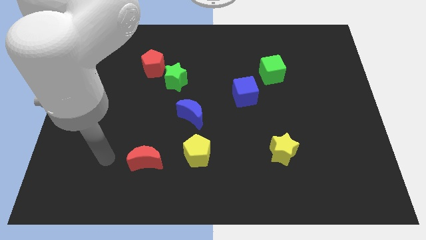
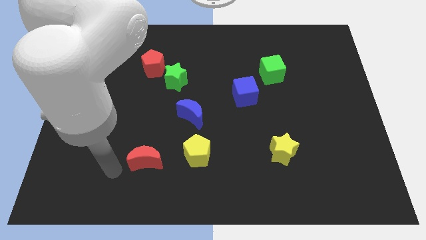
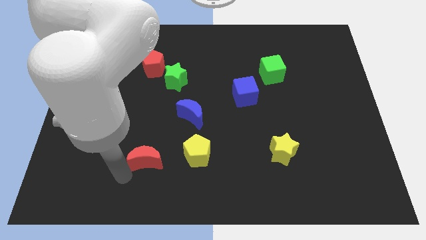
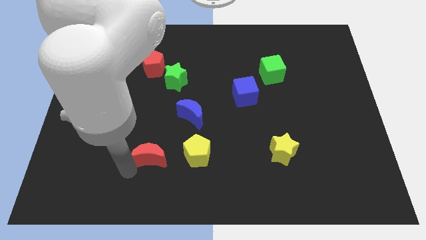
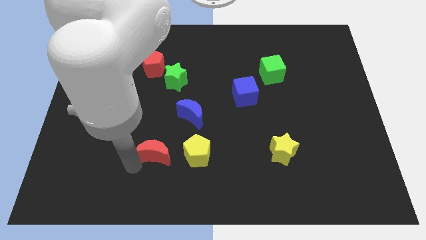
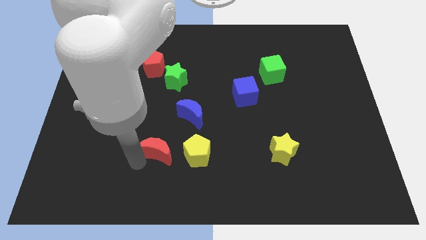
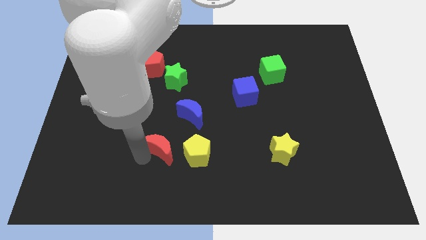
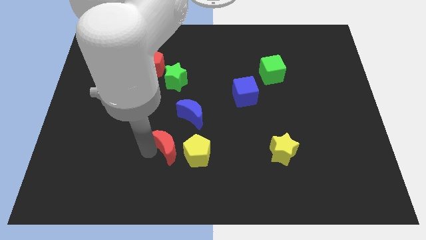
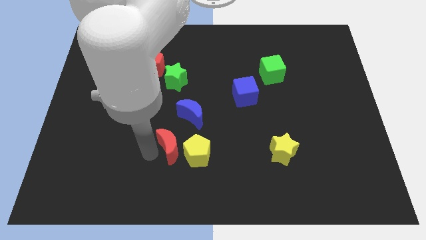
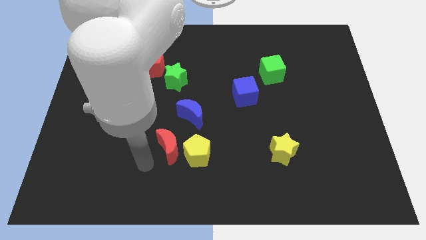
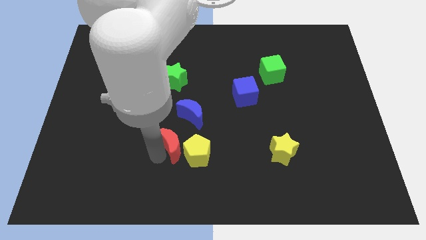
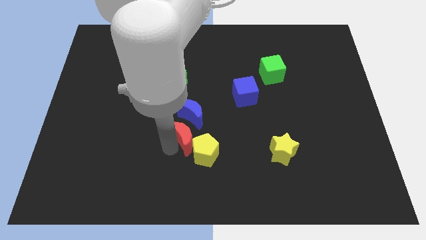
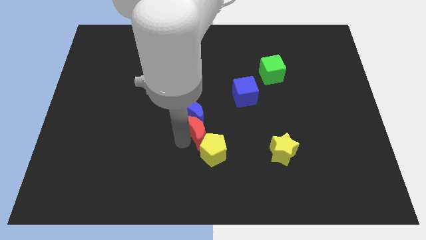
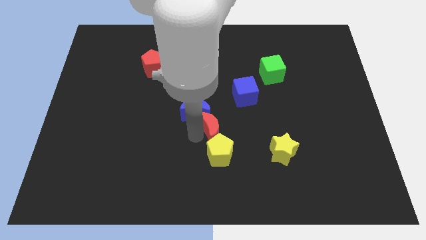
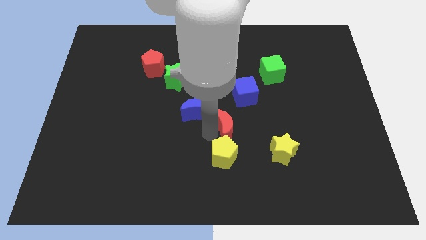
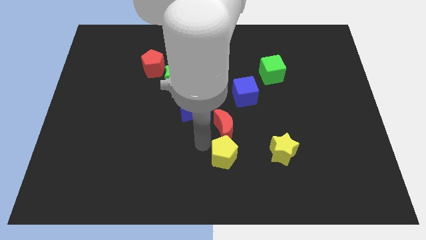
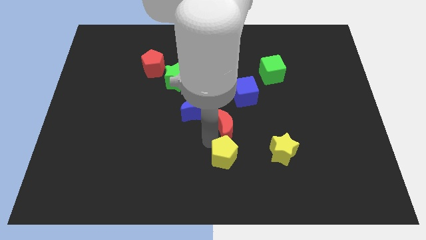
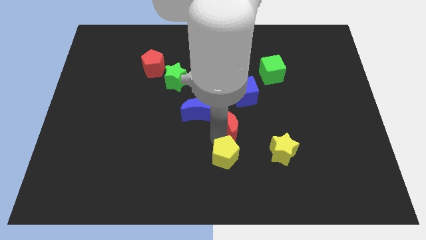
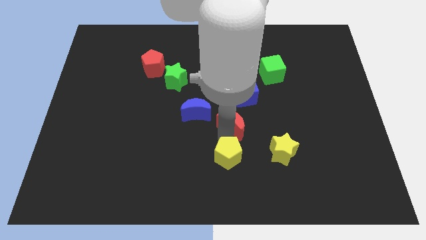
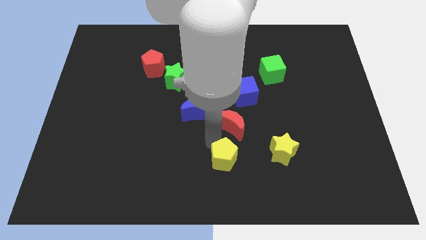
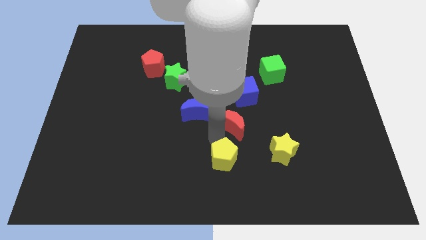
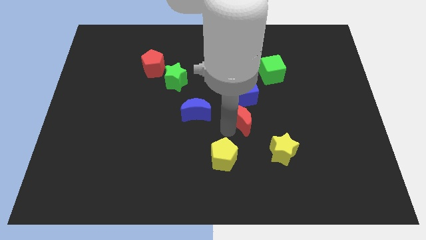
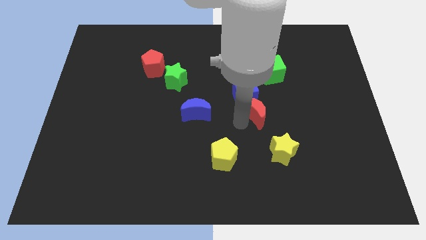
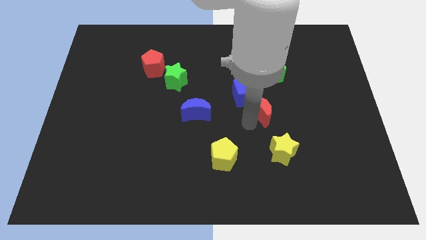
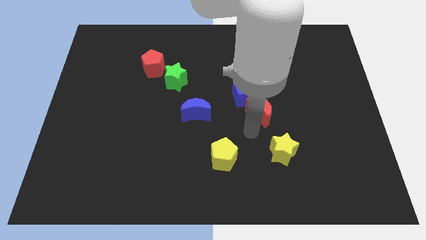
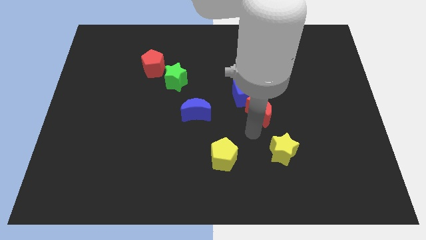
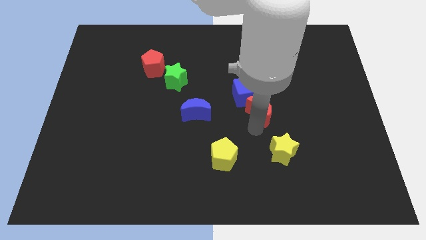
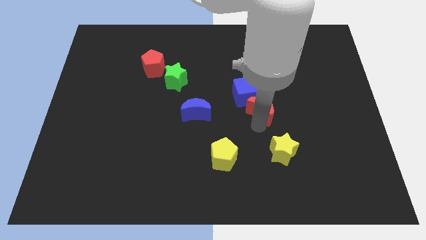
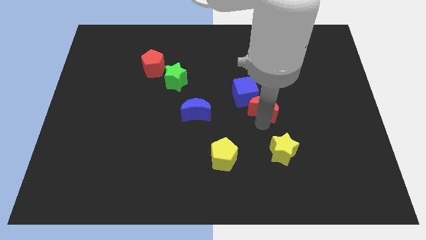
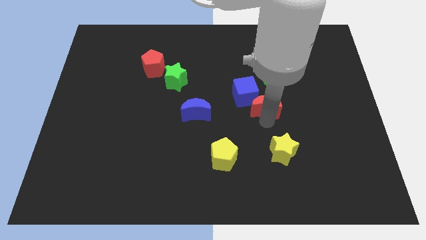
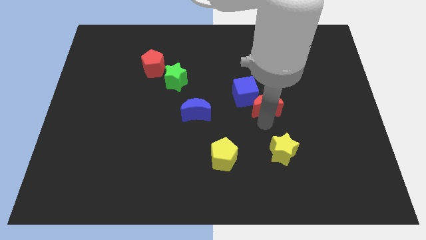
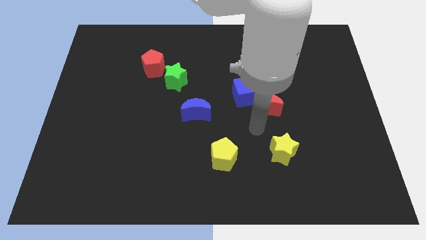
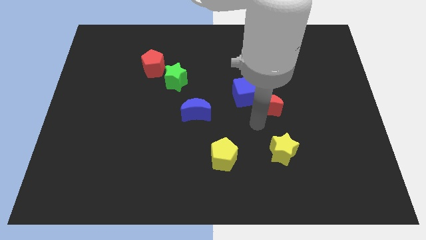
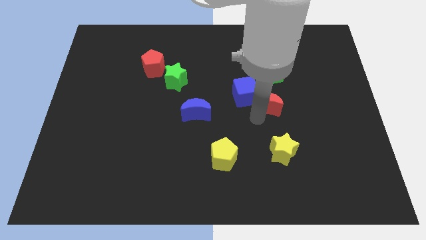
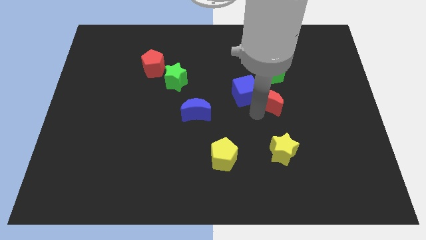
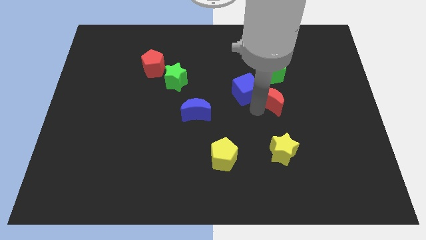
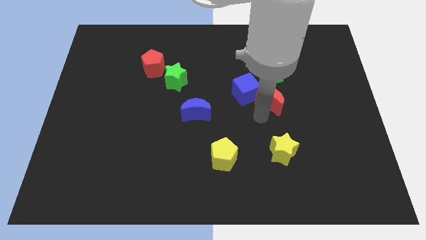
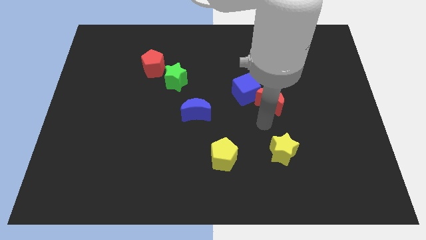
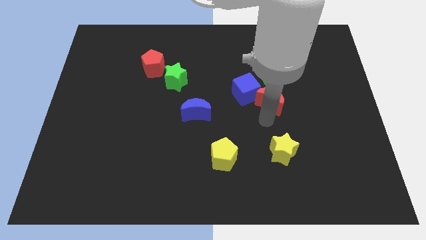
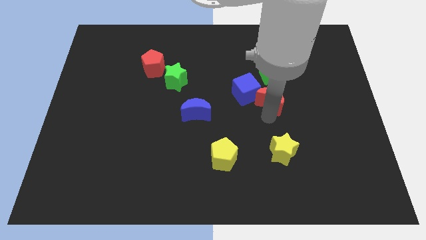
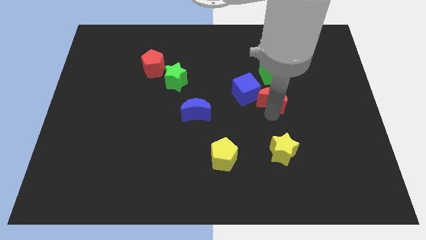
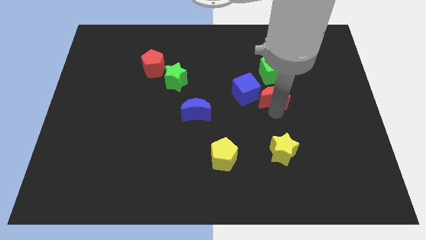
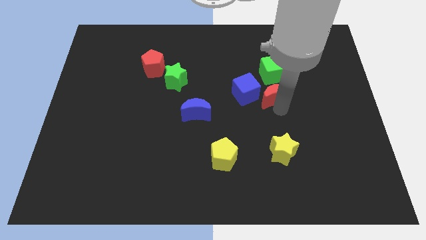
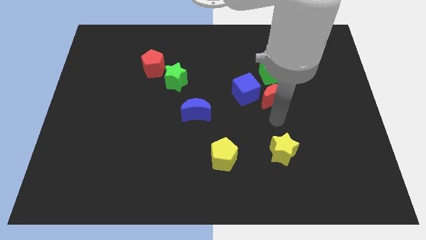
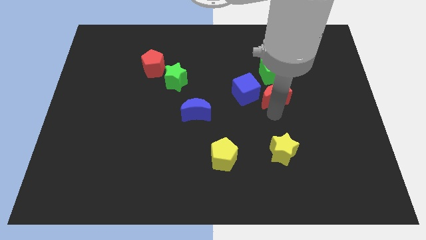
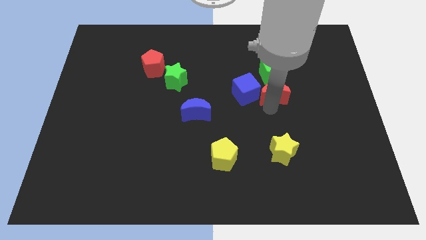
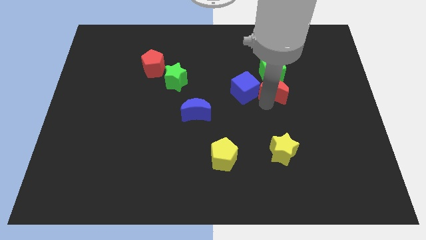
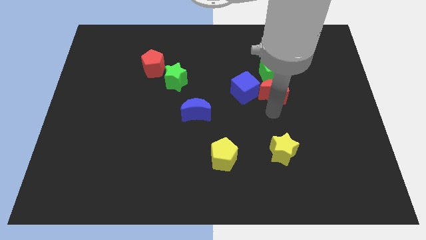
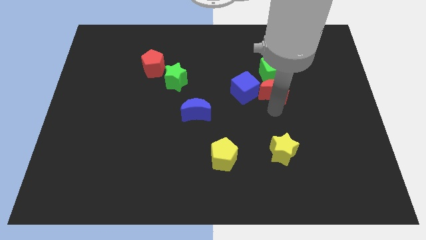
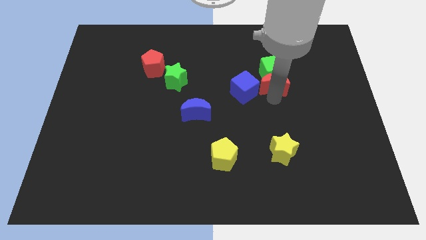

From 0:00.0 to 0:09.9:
put the red moon close to the green cube

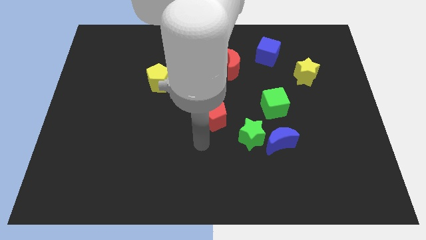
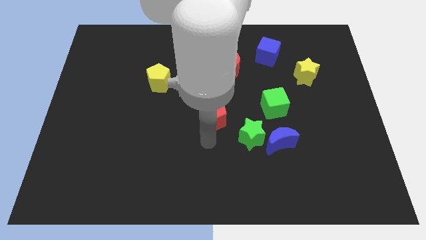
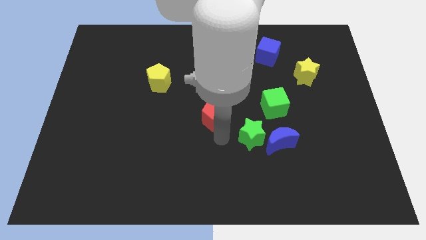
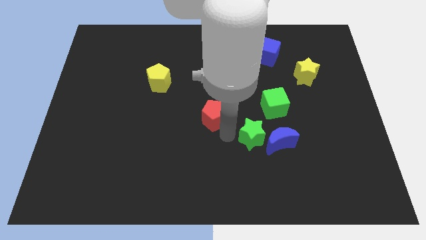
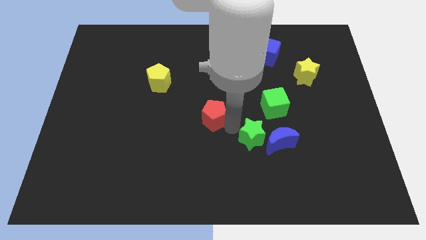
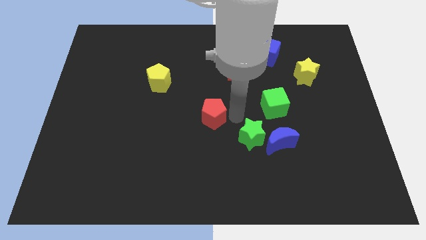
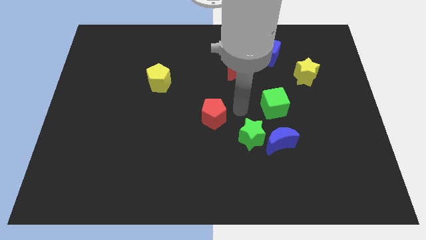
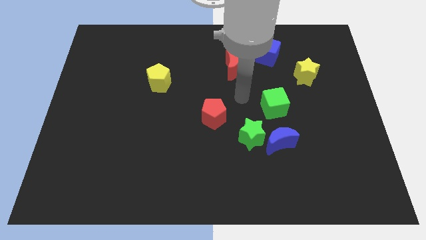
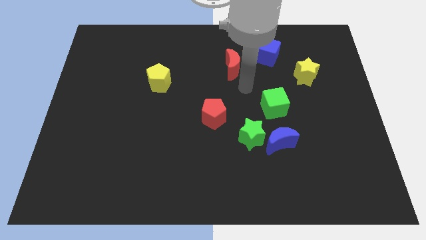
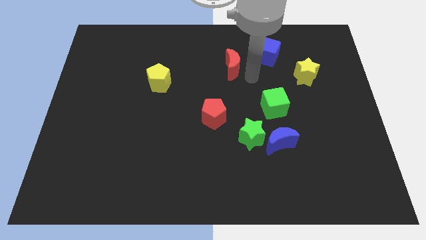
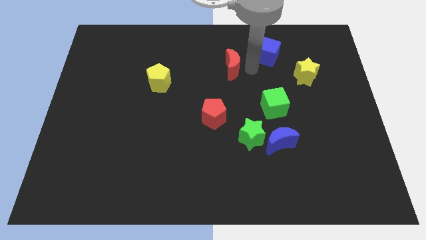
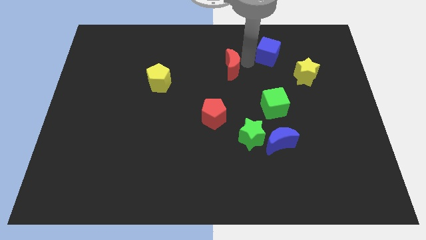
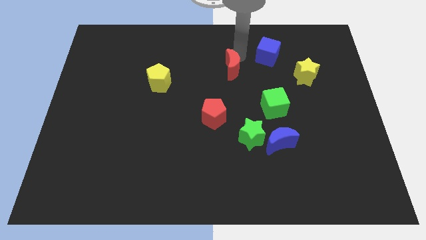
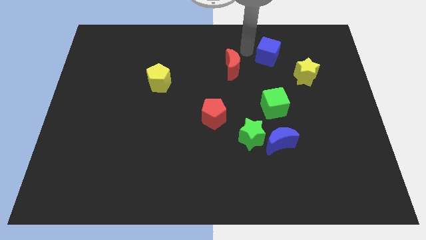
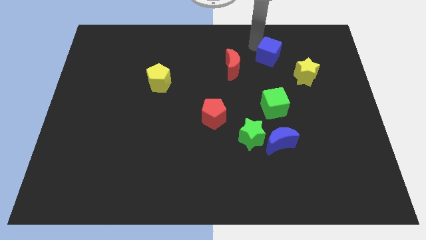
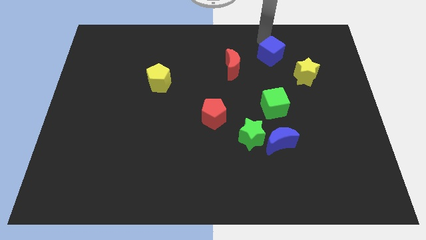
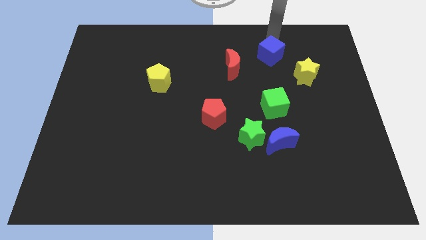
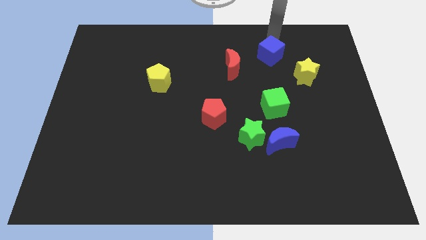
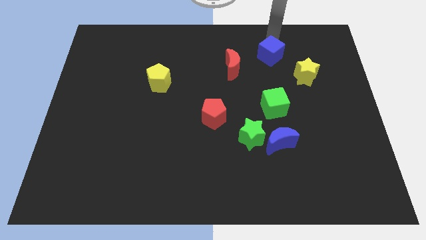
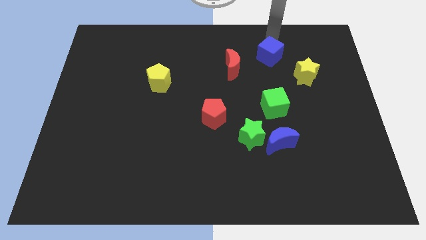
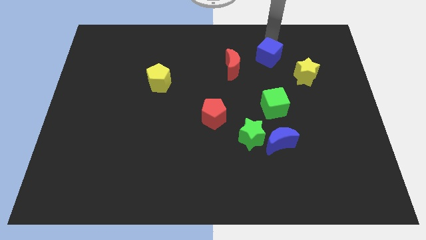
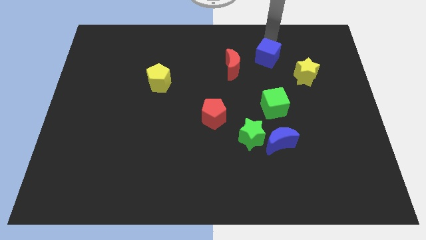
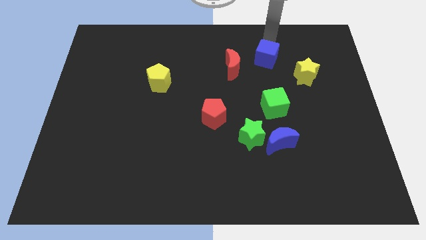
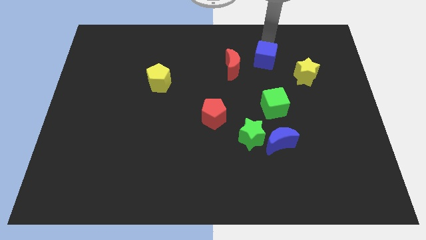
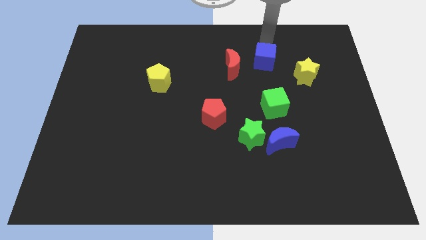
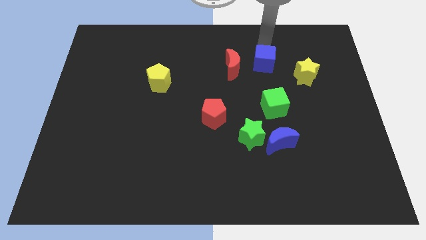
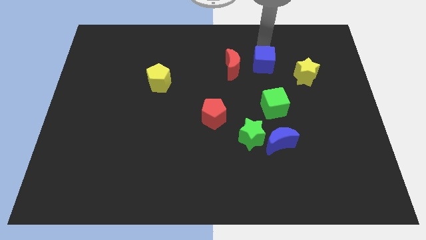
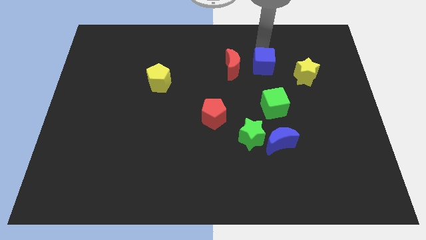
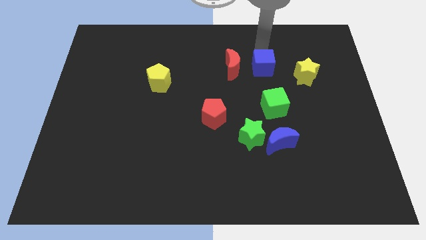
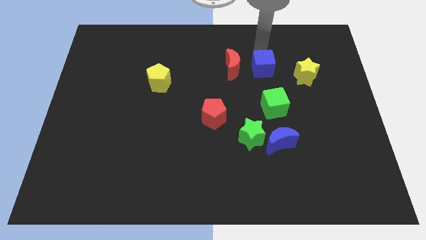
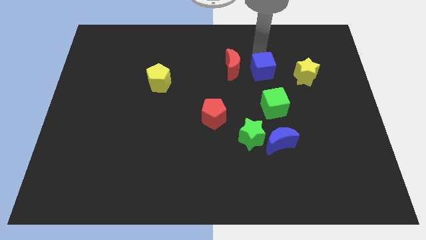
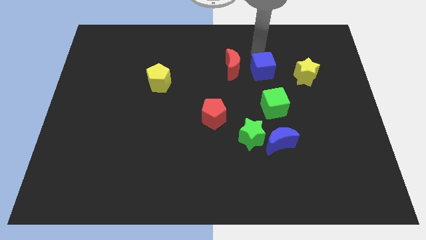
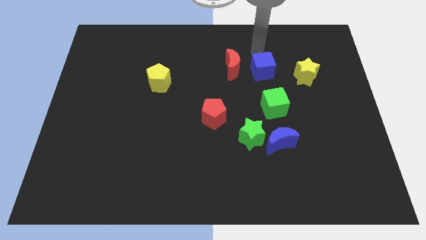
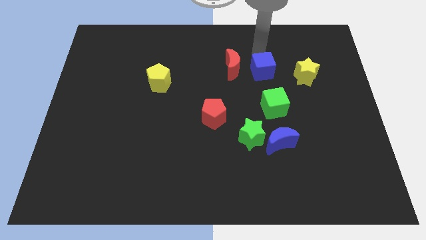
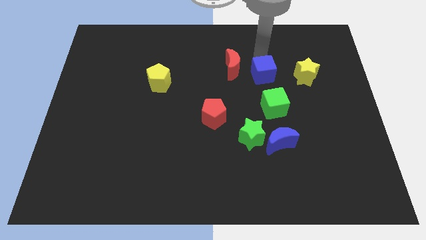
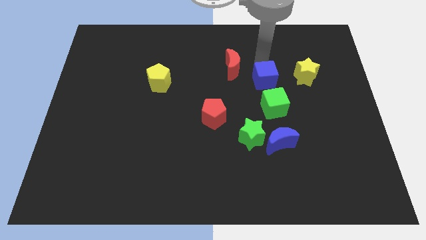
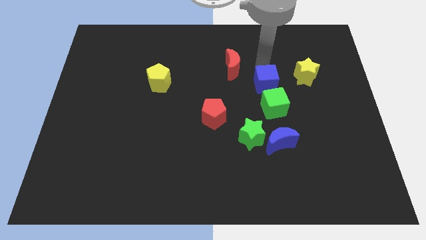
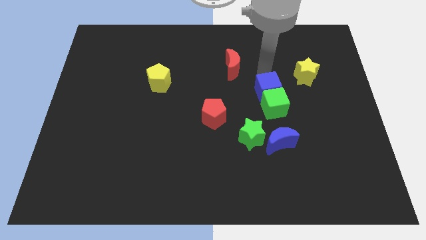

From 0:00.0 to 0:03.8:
put the blue cube close to the green cube
